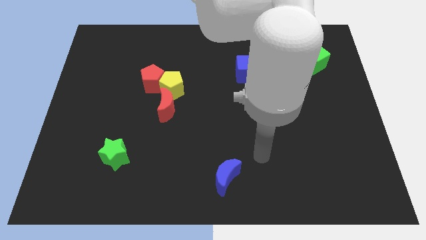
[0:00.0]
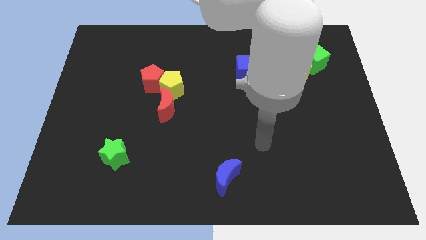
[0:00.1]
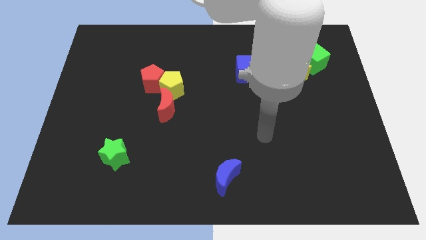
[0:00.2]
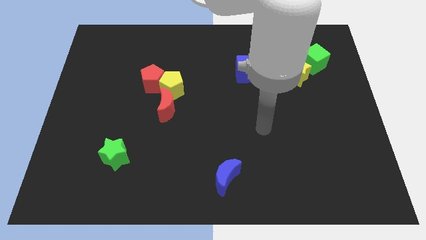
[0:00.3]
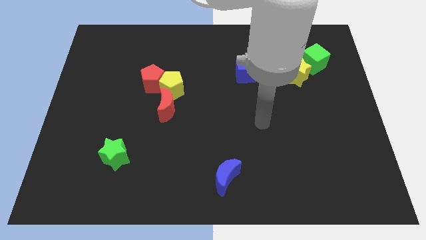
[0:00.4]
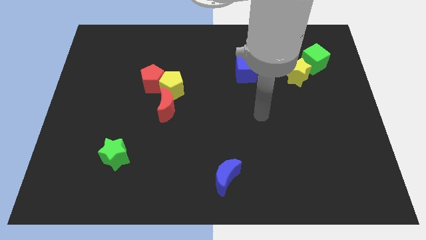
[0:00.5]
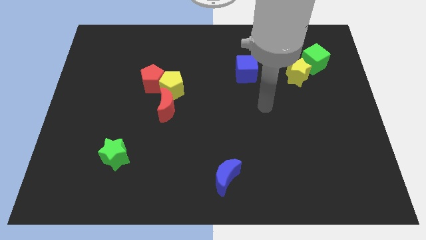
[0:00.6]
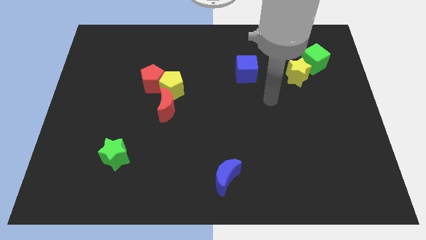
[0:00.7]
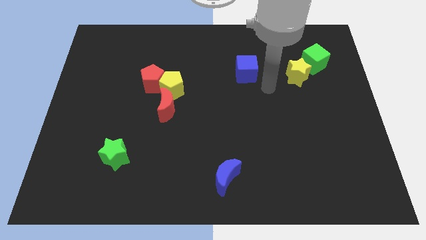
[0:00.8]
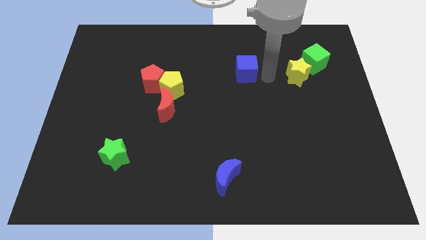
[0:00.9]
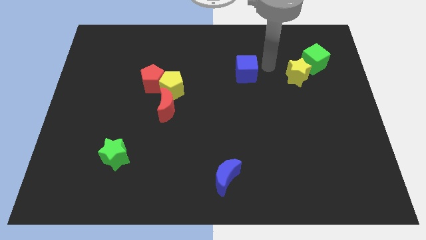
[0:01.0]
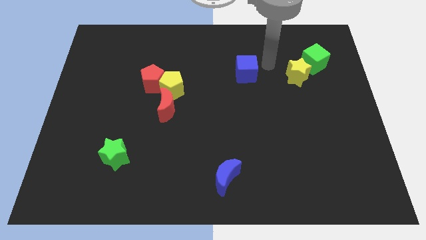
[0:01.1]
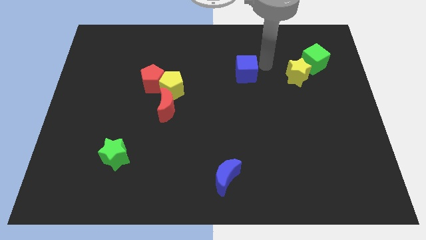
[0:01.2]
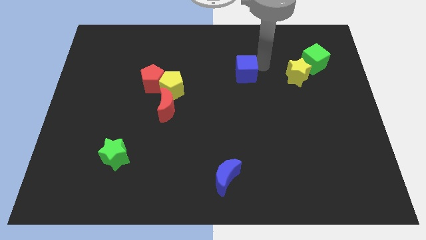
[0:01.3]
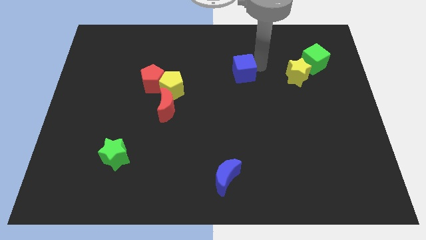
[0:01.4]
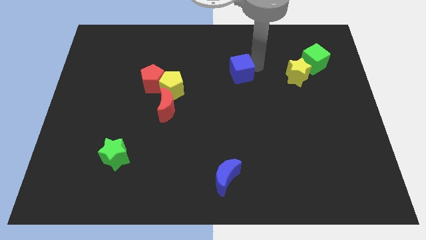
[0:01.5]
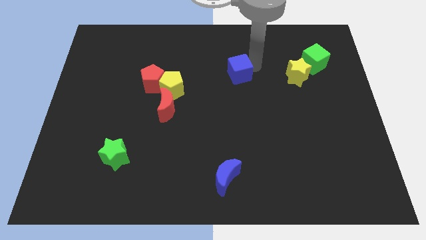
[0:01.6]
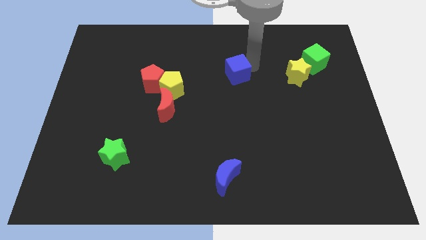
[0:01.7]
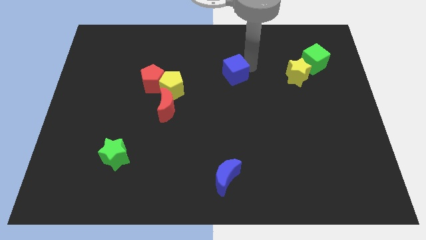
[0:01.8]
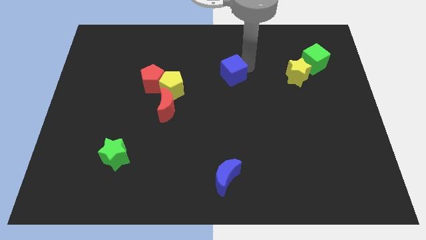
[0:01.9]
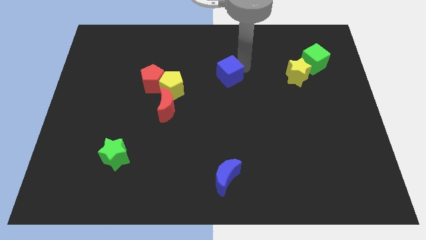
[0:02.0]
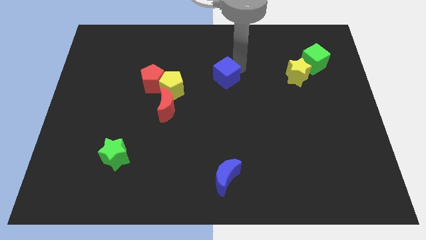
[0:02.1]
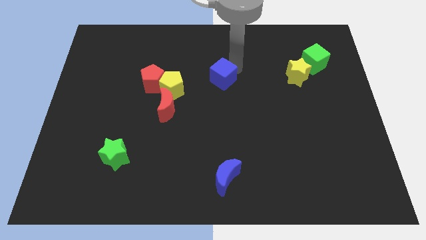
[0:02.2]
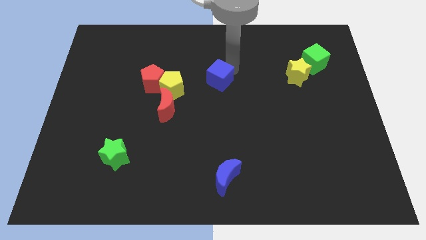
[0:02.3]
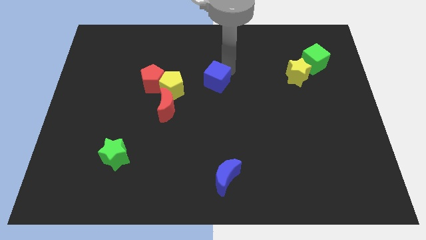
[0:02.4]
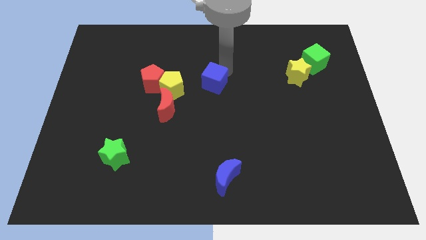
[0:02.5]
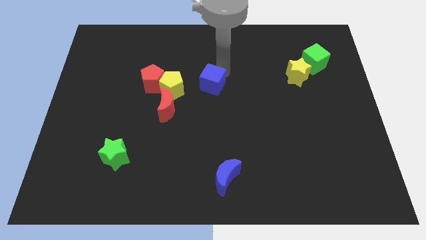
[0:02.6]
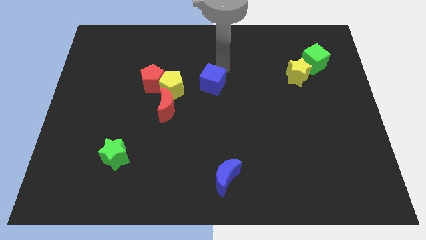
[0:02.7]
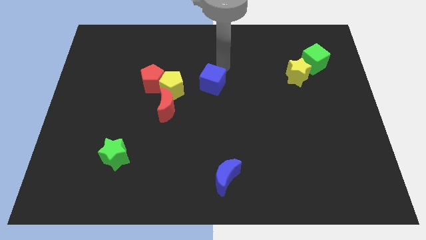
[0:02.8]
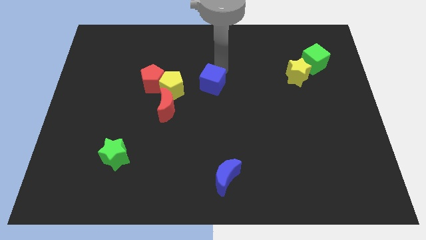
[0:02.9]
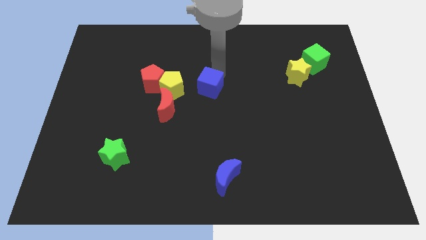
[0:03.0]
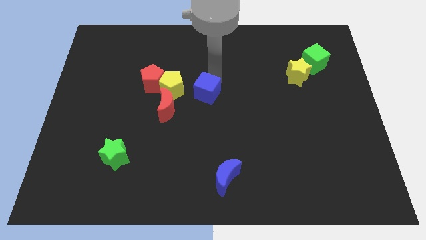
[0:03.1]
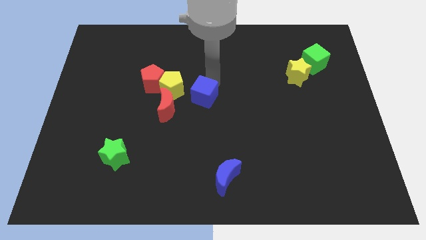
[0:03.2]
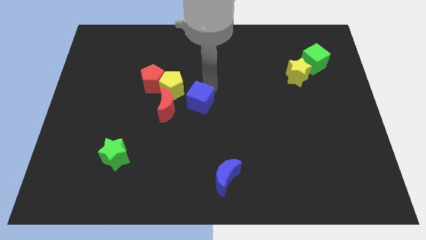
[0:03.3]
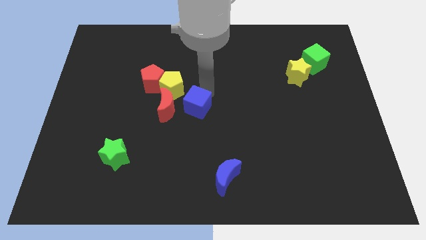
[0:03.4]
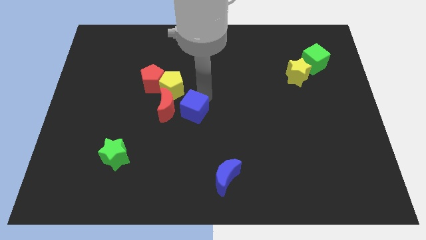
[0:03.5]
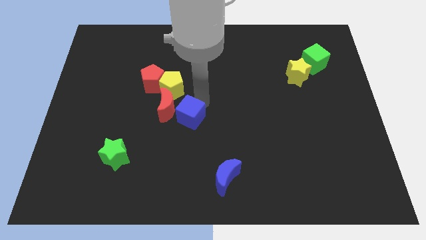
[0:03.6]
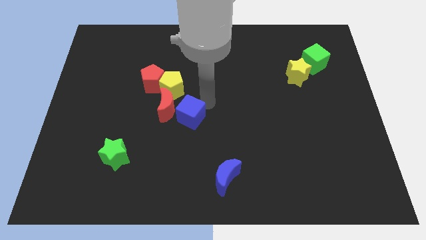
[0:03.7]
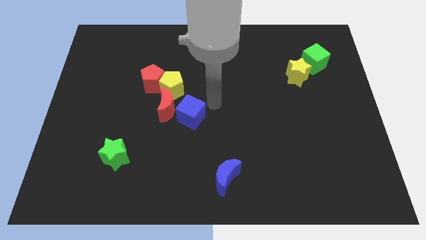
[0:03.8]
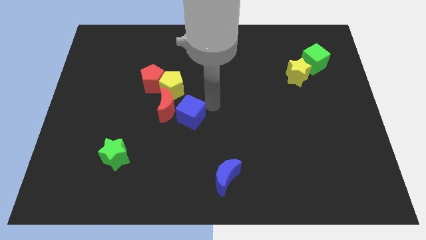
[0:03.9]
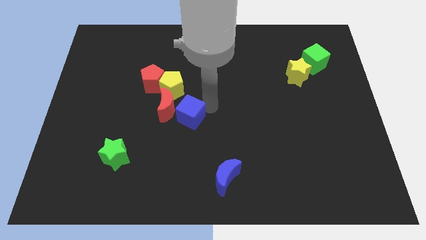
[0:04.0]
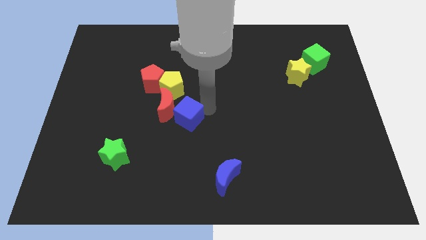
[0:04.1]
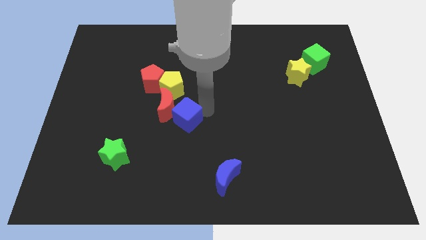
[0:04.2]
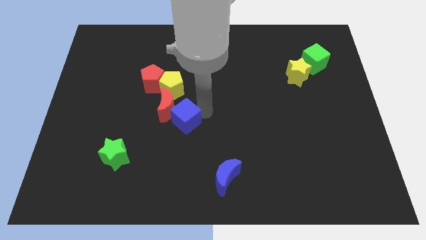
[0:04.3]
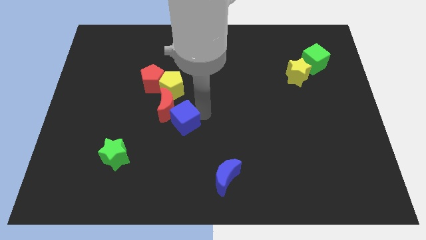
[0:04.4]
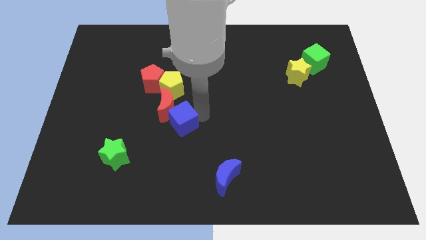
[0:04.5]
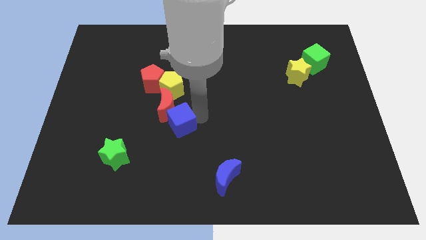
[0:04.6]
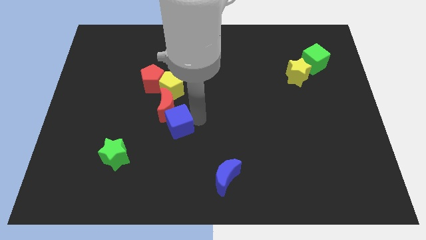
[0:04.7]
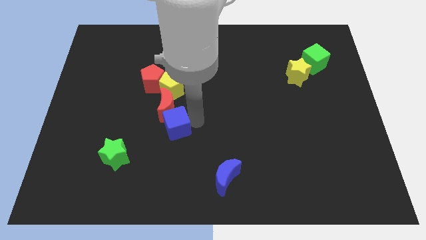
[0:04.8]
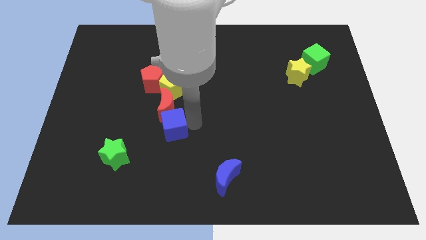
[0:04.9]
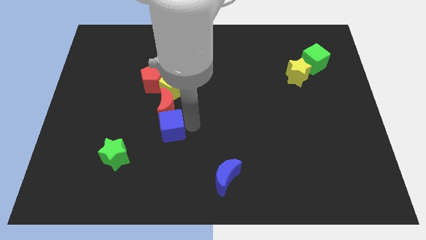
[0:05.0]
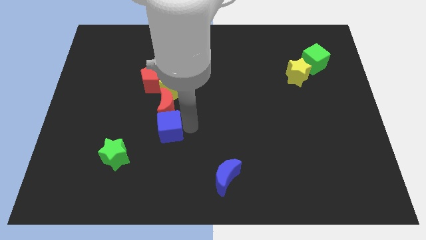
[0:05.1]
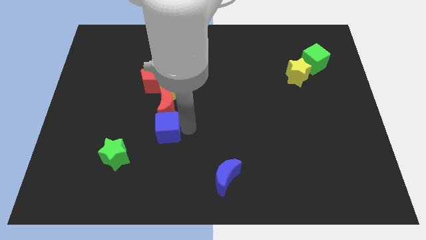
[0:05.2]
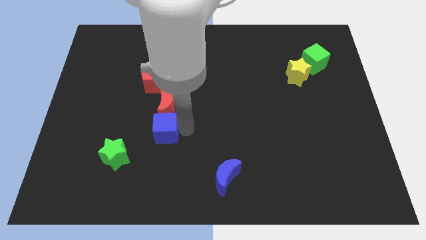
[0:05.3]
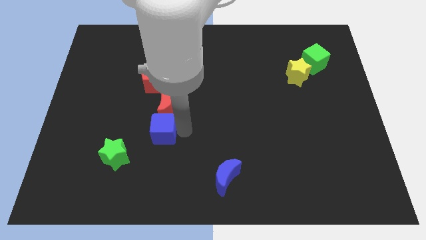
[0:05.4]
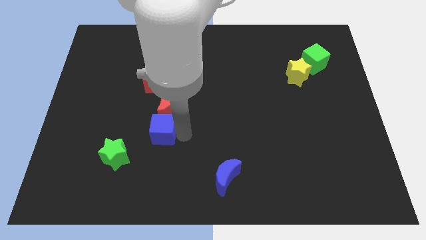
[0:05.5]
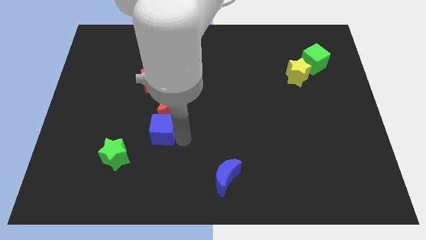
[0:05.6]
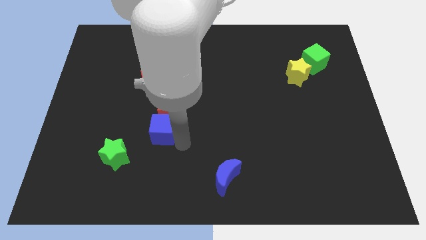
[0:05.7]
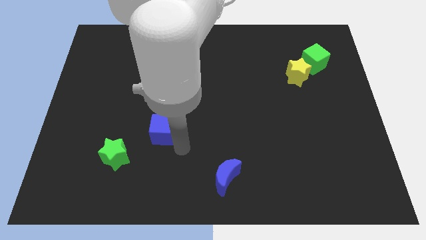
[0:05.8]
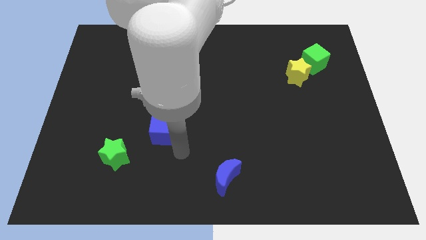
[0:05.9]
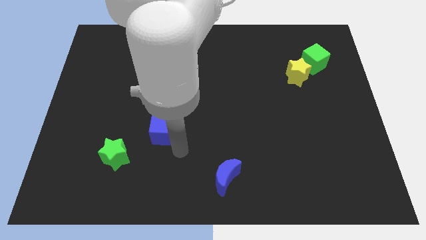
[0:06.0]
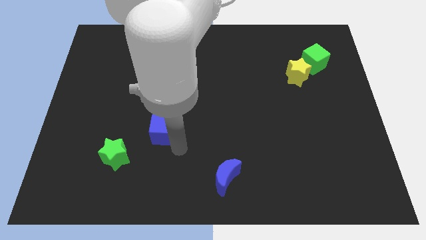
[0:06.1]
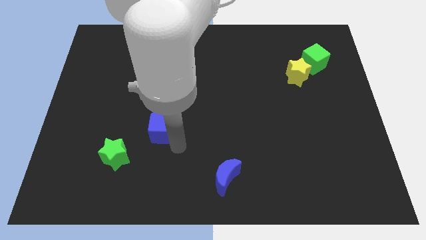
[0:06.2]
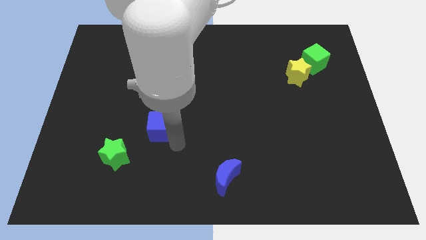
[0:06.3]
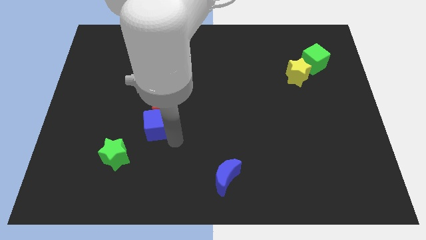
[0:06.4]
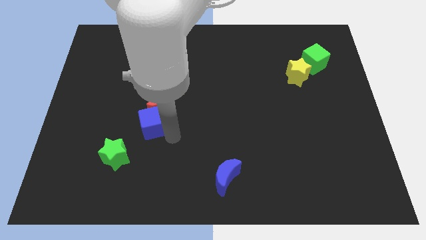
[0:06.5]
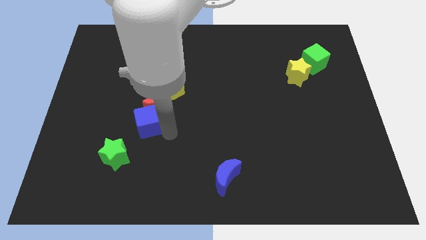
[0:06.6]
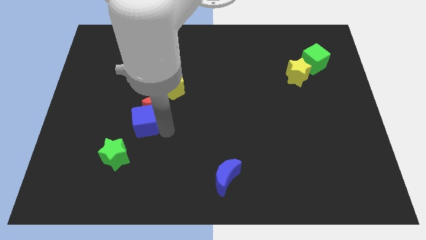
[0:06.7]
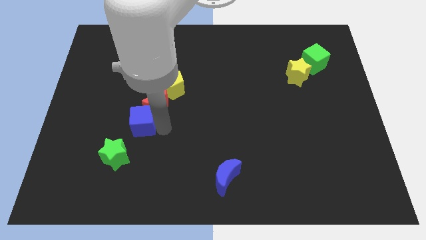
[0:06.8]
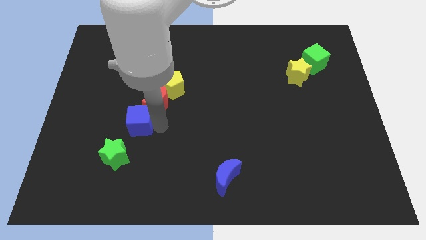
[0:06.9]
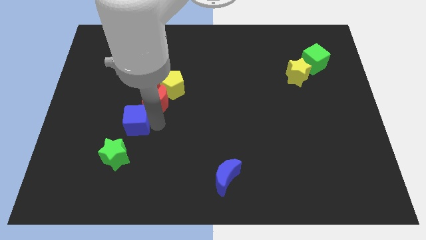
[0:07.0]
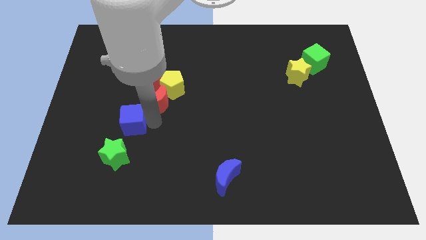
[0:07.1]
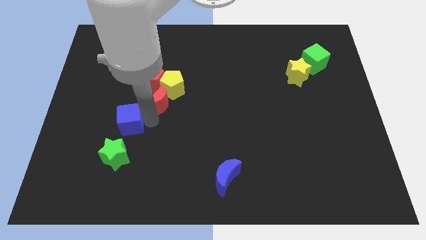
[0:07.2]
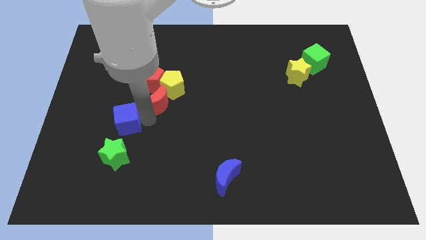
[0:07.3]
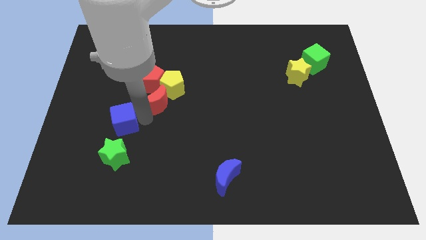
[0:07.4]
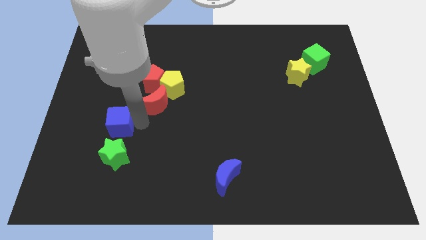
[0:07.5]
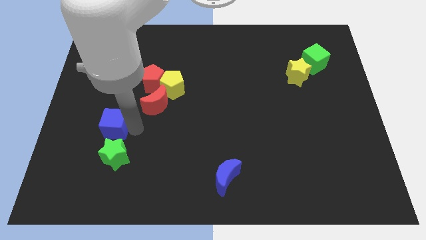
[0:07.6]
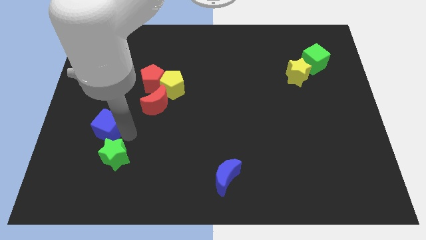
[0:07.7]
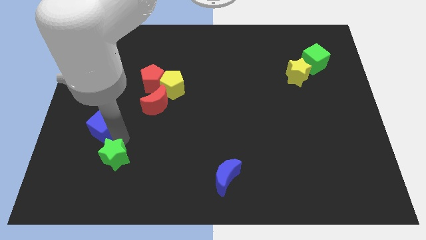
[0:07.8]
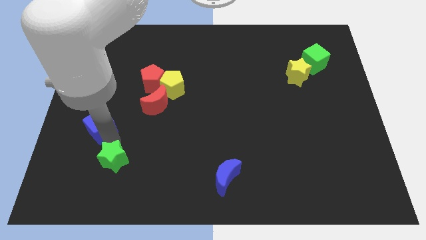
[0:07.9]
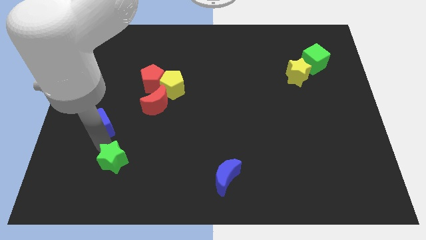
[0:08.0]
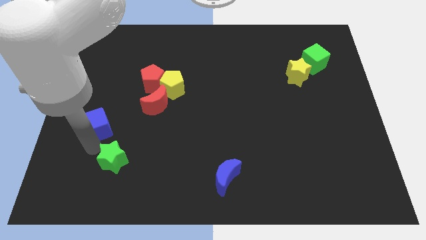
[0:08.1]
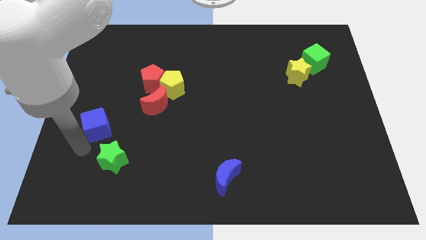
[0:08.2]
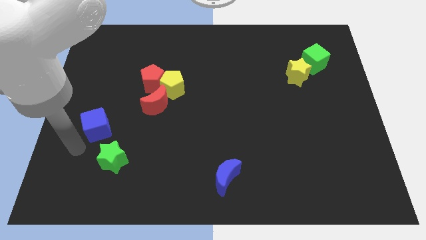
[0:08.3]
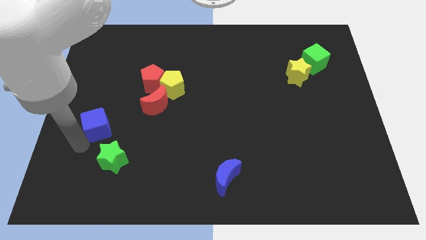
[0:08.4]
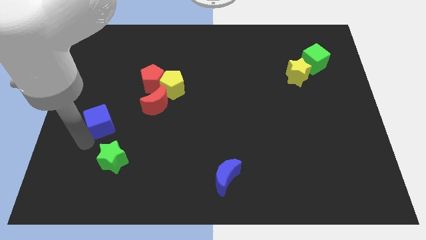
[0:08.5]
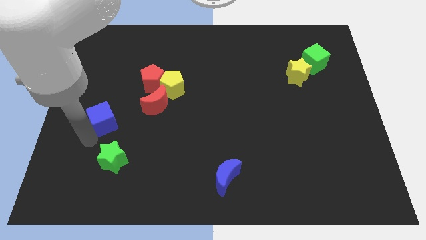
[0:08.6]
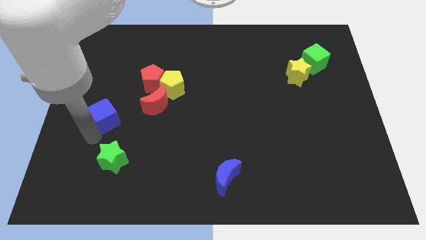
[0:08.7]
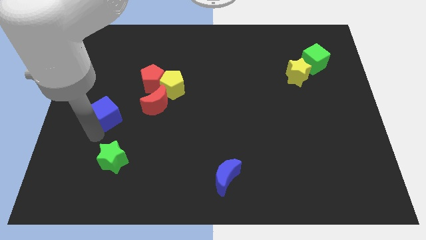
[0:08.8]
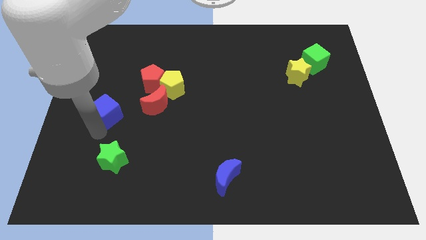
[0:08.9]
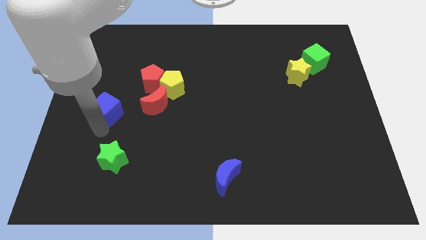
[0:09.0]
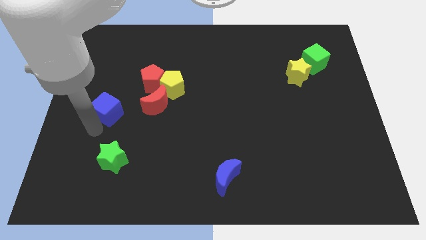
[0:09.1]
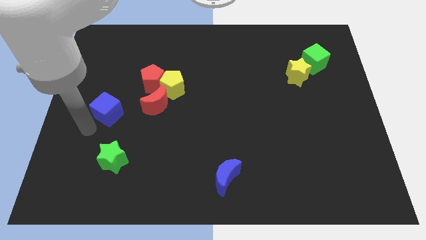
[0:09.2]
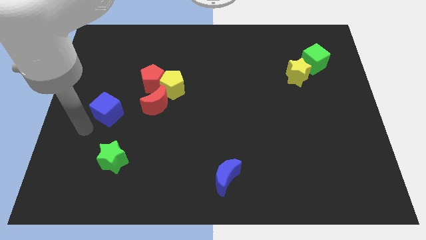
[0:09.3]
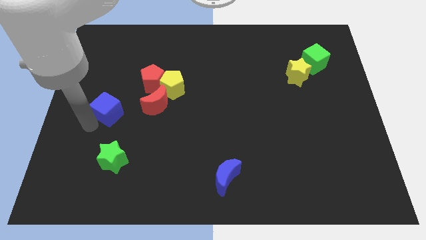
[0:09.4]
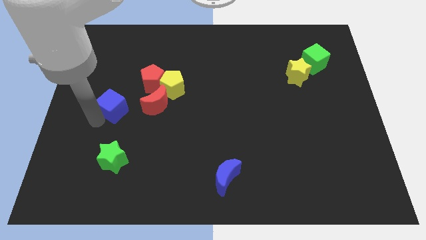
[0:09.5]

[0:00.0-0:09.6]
put the blue cube diagonally down and to the left of the red pentagon
